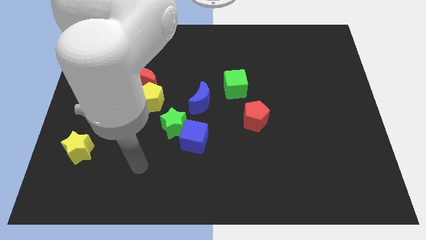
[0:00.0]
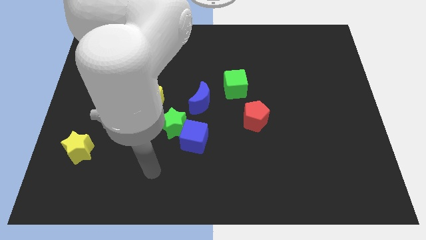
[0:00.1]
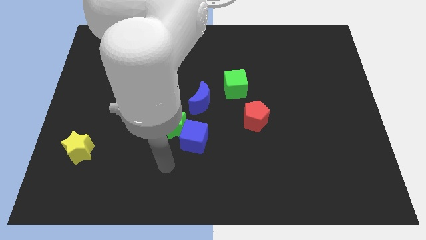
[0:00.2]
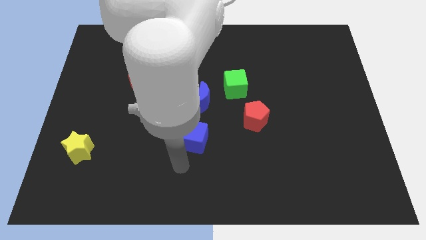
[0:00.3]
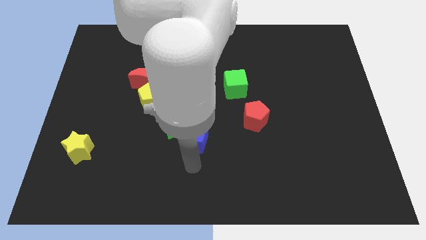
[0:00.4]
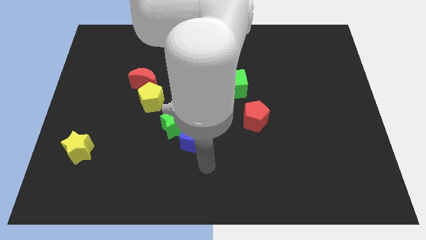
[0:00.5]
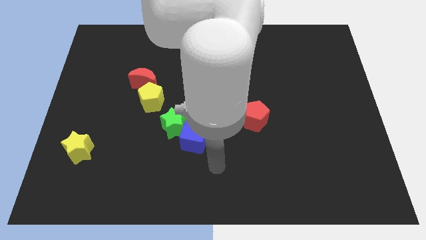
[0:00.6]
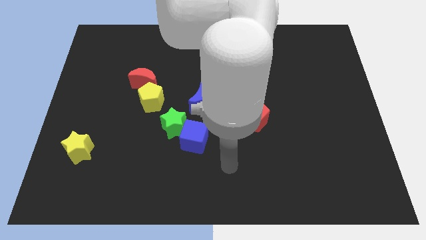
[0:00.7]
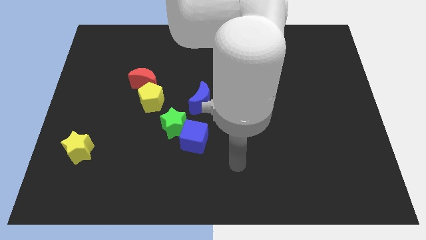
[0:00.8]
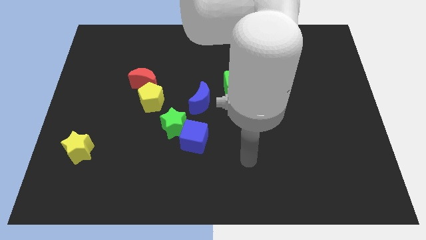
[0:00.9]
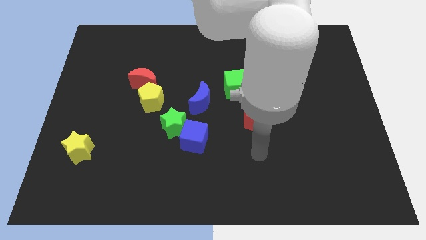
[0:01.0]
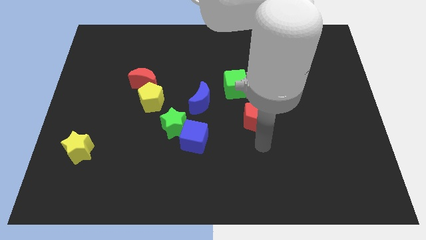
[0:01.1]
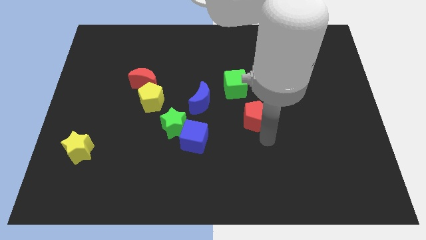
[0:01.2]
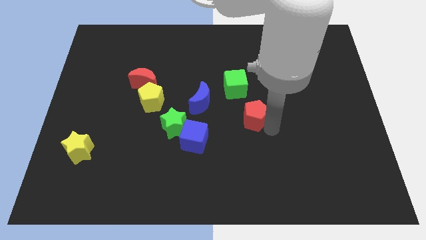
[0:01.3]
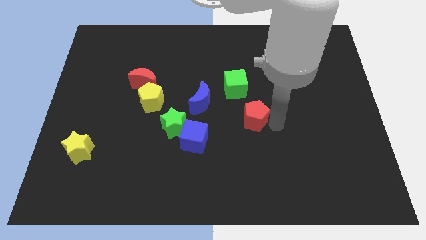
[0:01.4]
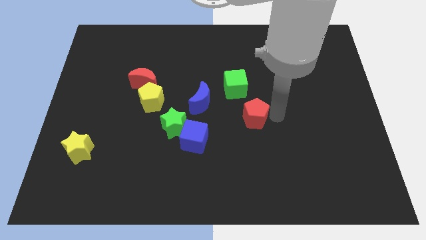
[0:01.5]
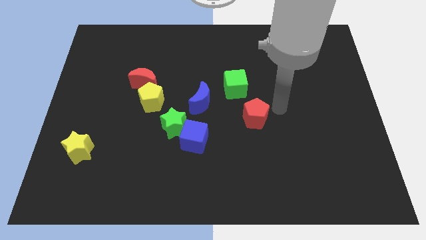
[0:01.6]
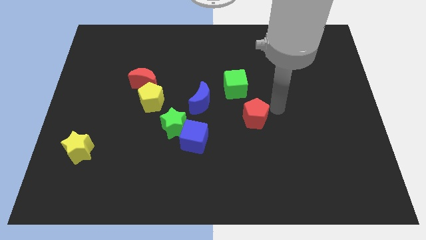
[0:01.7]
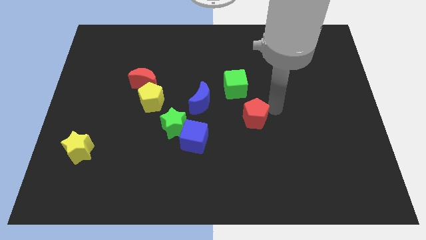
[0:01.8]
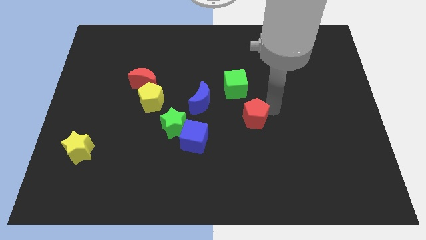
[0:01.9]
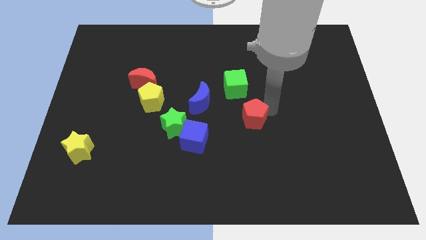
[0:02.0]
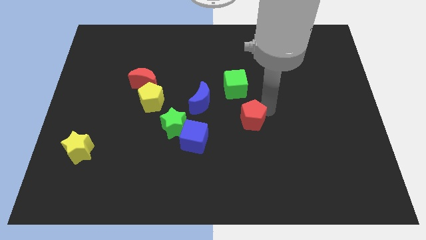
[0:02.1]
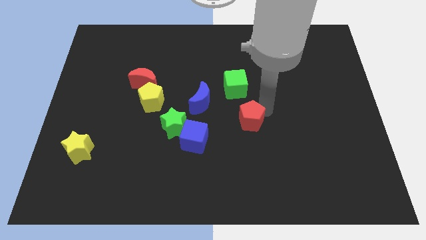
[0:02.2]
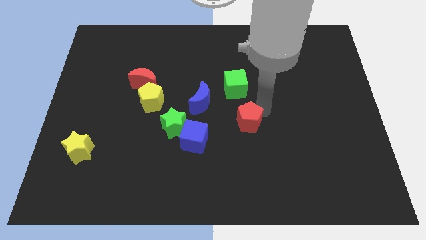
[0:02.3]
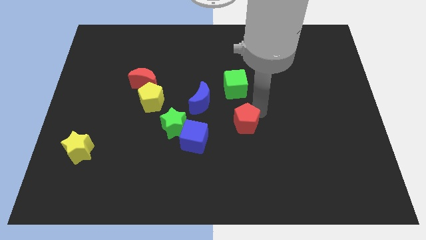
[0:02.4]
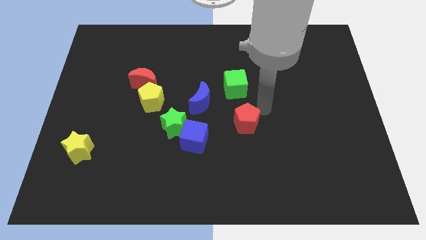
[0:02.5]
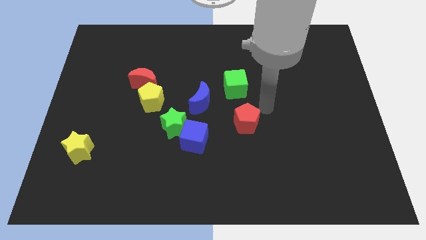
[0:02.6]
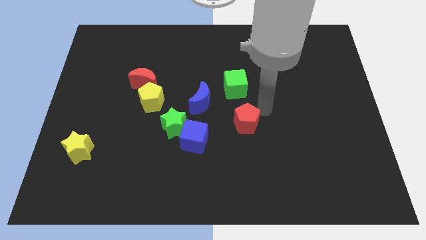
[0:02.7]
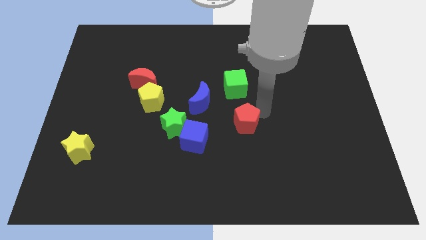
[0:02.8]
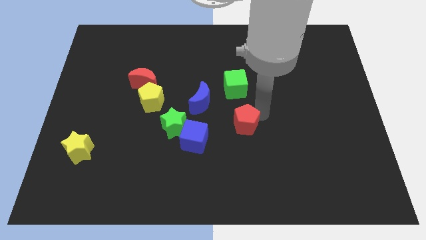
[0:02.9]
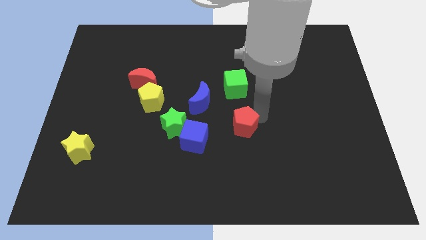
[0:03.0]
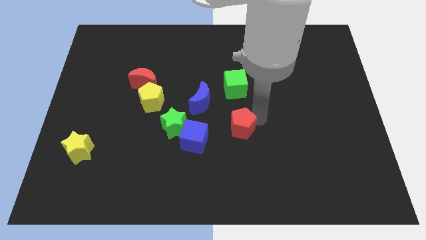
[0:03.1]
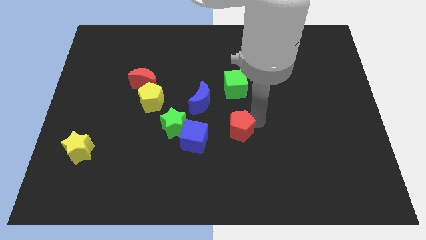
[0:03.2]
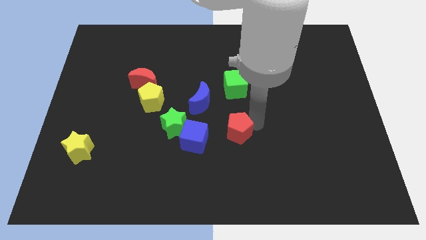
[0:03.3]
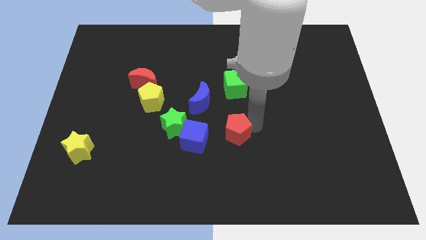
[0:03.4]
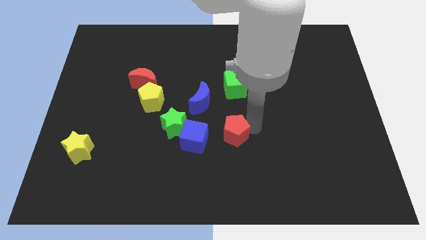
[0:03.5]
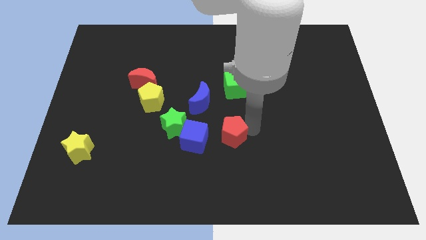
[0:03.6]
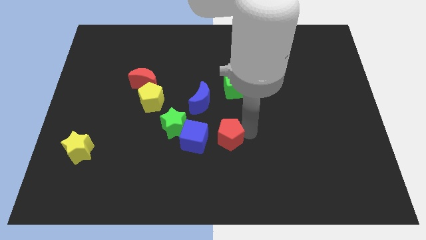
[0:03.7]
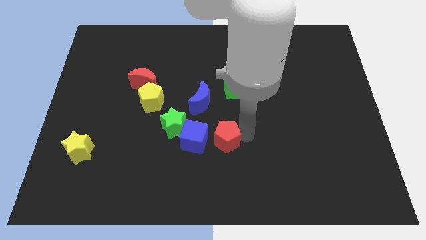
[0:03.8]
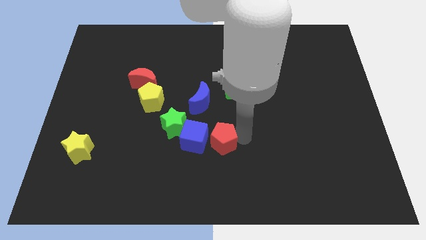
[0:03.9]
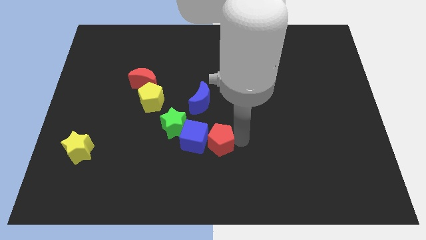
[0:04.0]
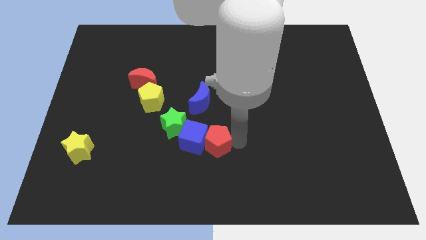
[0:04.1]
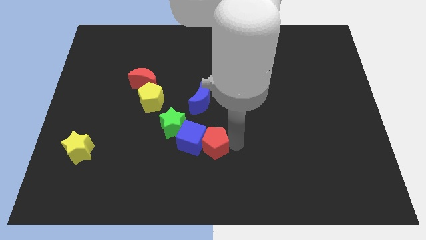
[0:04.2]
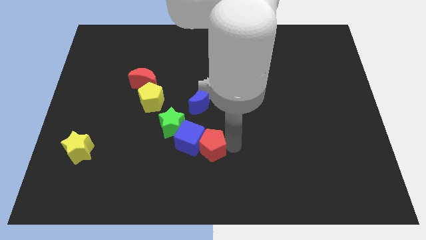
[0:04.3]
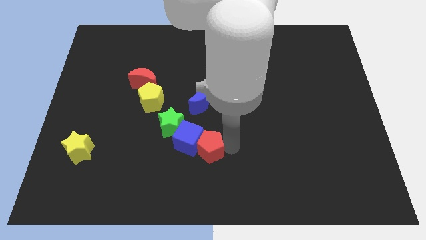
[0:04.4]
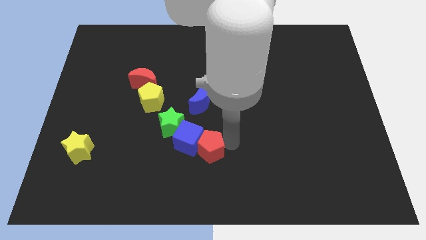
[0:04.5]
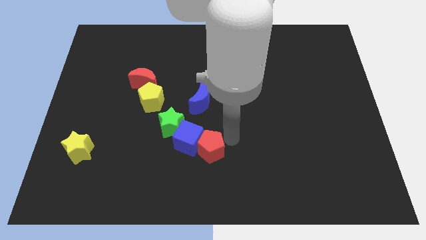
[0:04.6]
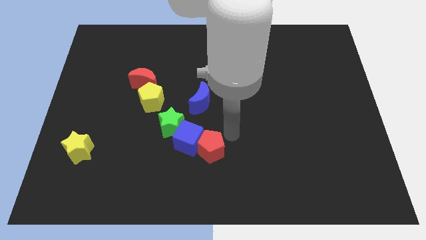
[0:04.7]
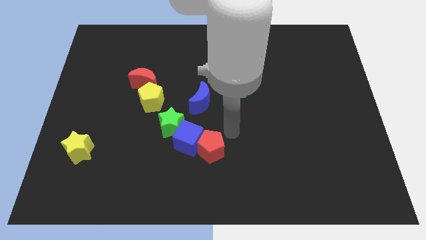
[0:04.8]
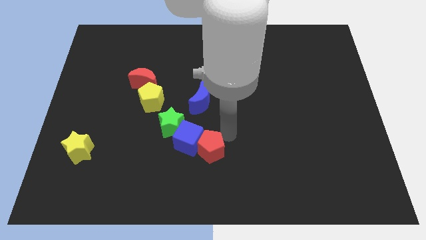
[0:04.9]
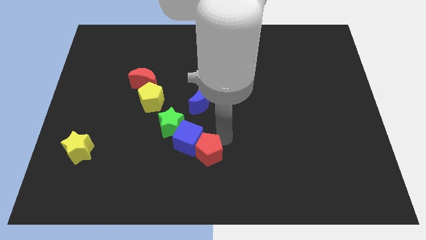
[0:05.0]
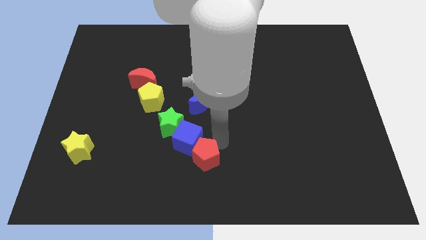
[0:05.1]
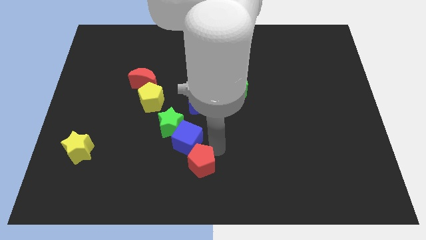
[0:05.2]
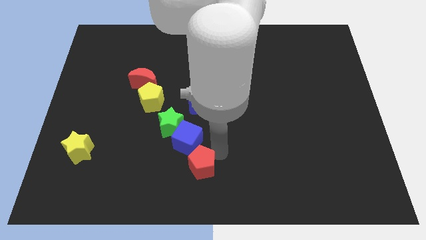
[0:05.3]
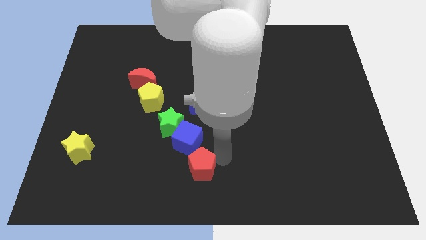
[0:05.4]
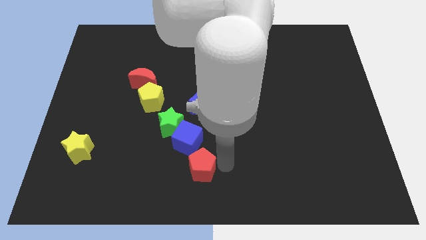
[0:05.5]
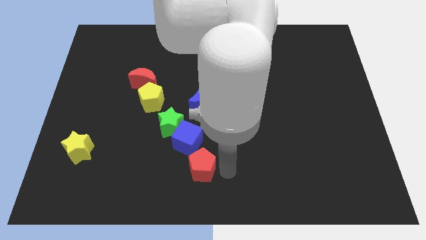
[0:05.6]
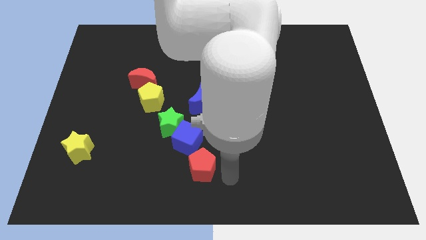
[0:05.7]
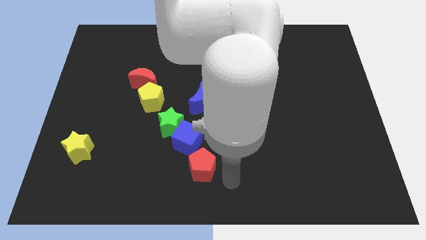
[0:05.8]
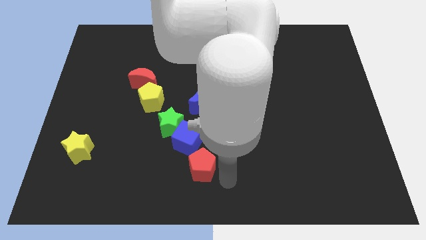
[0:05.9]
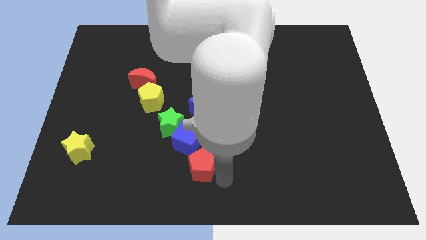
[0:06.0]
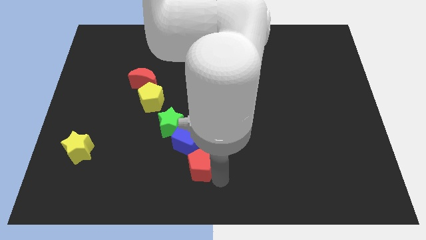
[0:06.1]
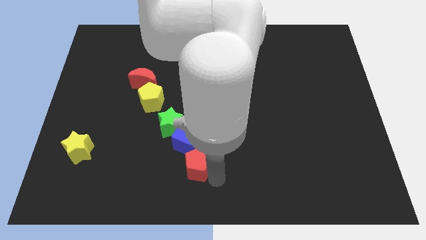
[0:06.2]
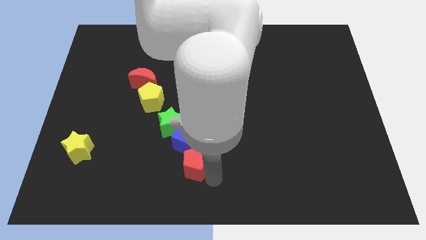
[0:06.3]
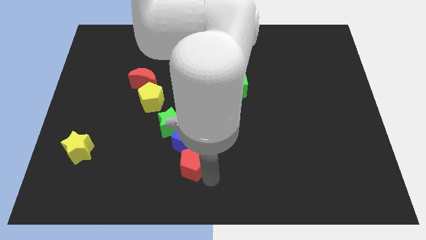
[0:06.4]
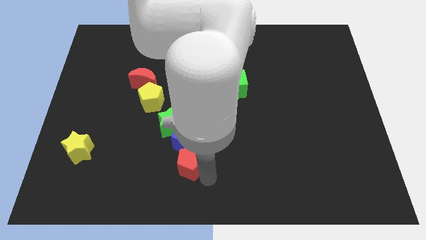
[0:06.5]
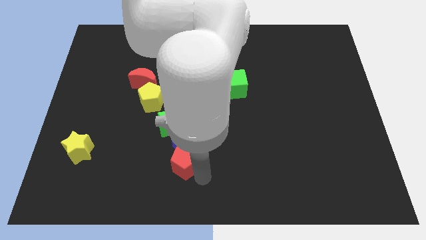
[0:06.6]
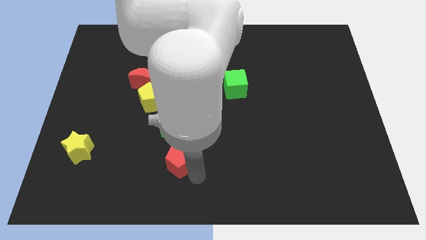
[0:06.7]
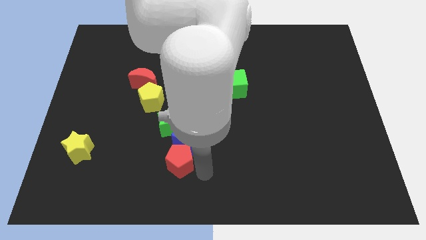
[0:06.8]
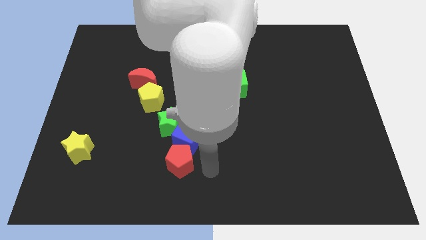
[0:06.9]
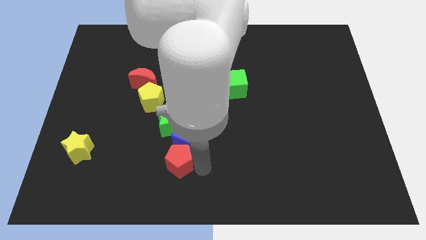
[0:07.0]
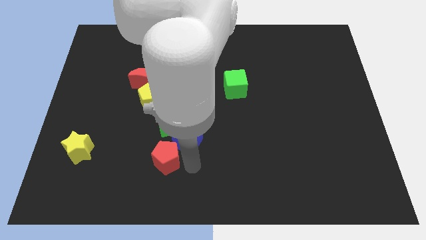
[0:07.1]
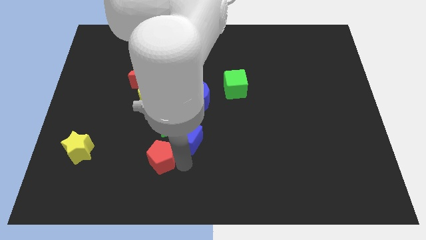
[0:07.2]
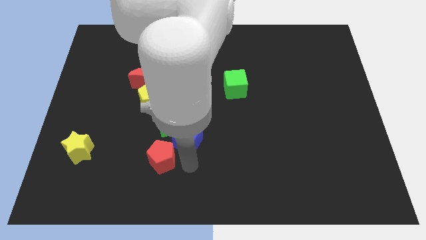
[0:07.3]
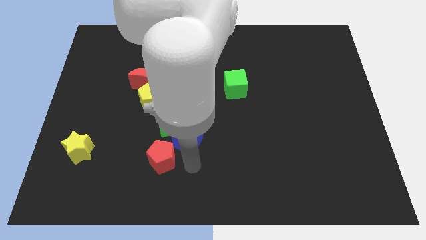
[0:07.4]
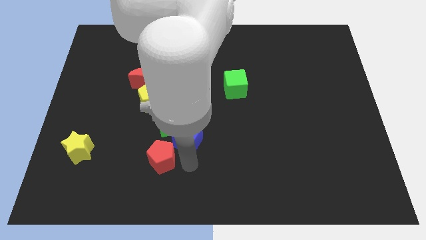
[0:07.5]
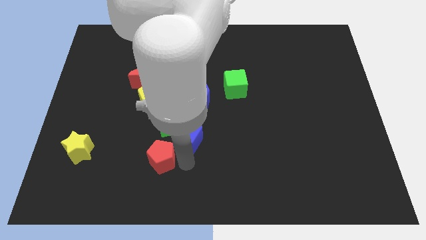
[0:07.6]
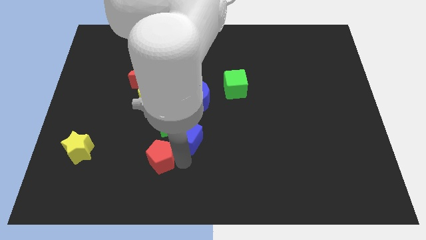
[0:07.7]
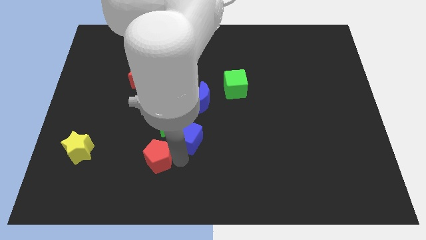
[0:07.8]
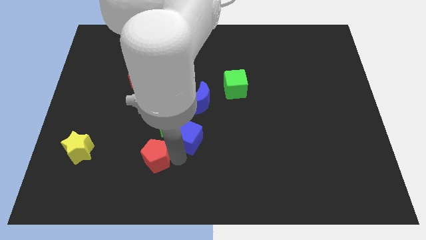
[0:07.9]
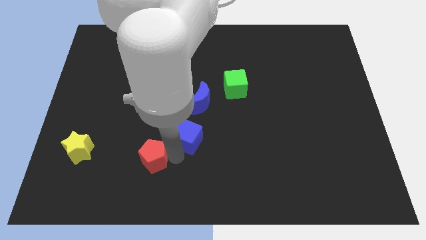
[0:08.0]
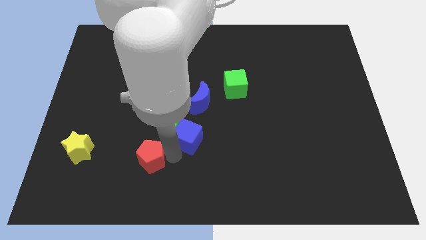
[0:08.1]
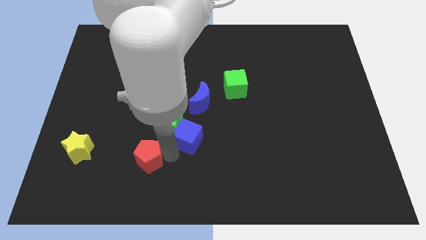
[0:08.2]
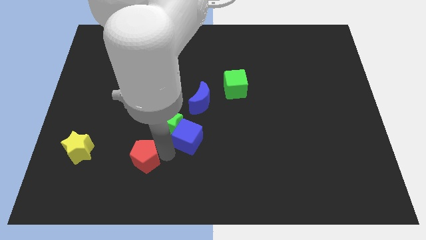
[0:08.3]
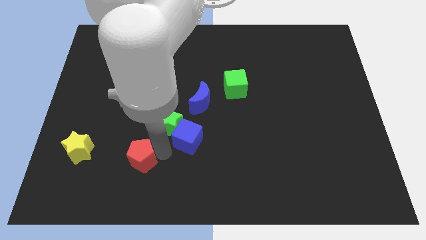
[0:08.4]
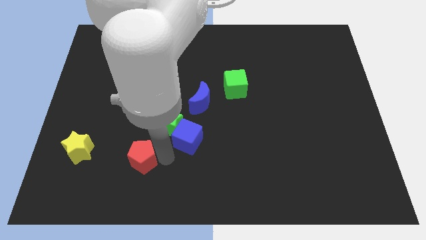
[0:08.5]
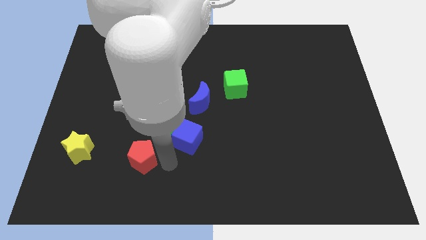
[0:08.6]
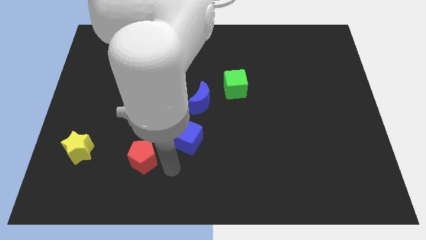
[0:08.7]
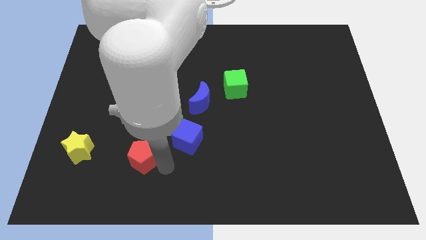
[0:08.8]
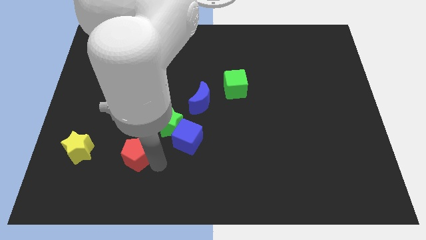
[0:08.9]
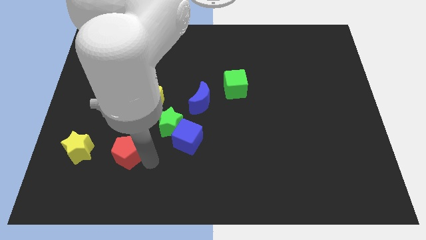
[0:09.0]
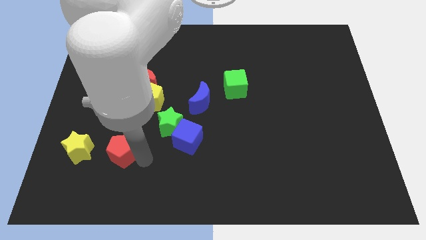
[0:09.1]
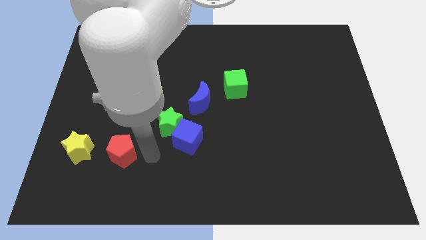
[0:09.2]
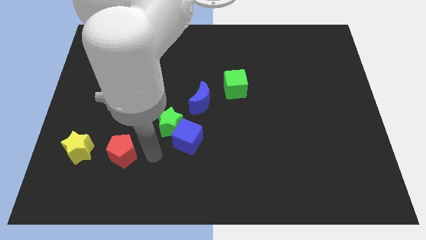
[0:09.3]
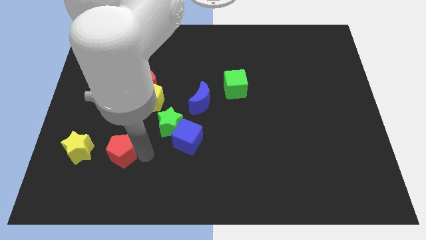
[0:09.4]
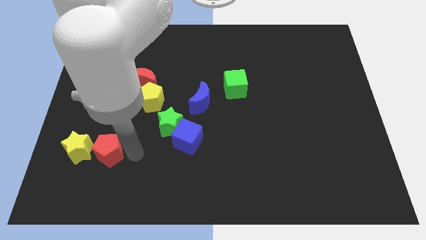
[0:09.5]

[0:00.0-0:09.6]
move the red pentagon towards the yellow star
